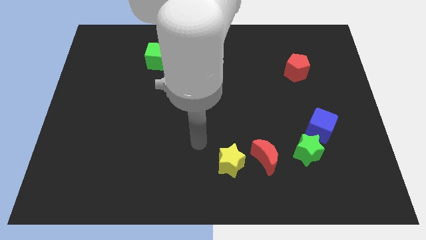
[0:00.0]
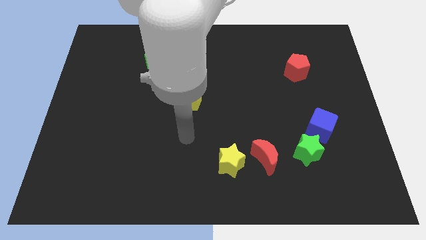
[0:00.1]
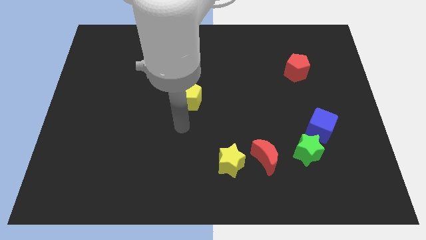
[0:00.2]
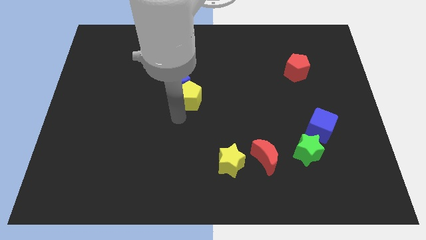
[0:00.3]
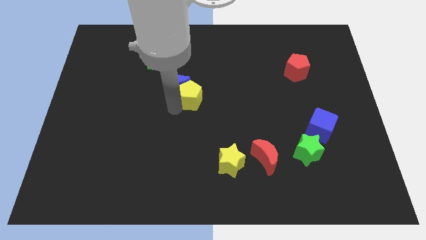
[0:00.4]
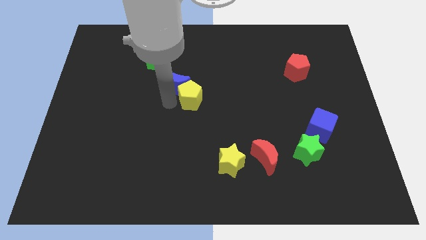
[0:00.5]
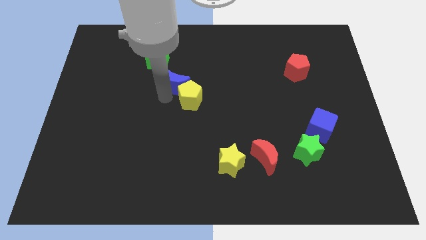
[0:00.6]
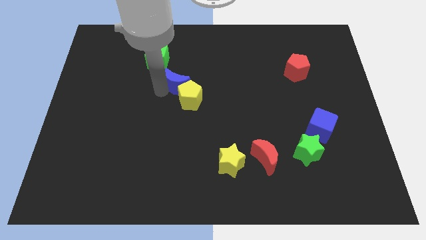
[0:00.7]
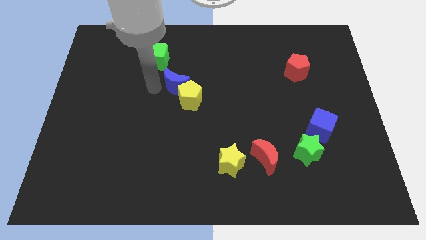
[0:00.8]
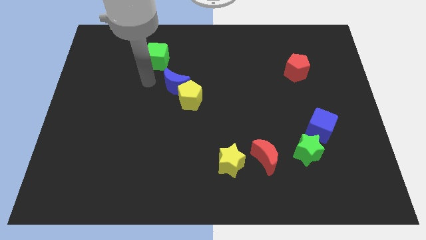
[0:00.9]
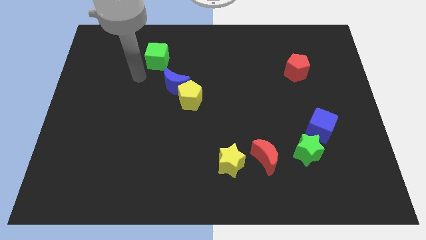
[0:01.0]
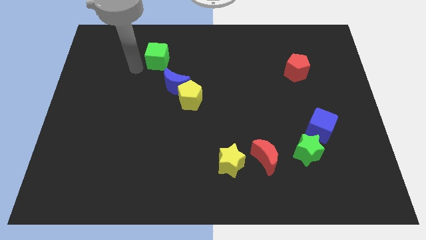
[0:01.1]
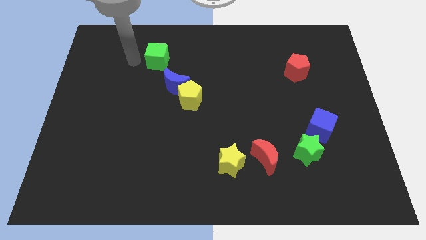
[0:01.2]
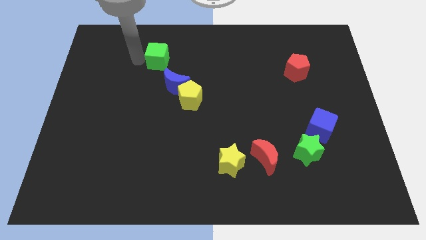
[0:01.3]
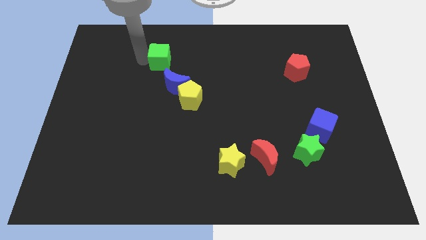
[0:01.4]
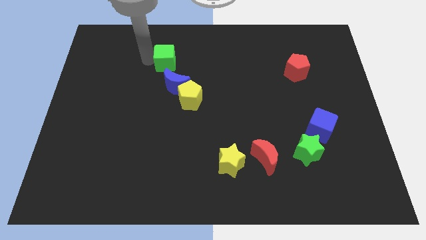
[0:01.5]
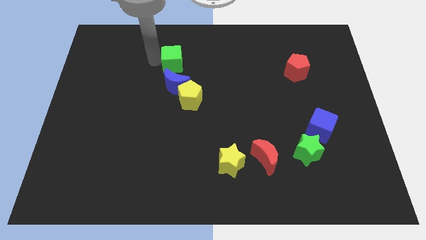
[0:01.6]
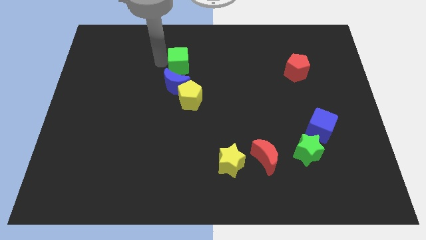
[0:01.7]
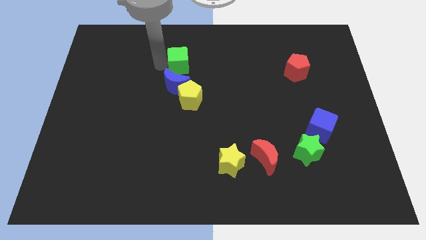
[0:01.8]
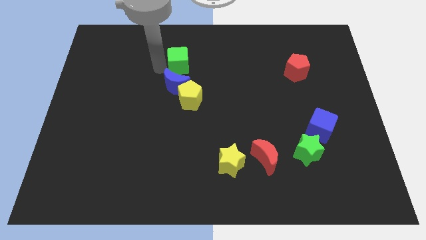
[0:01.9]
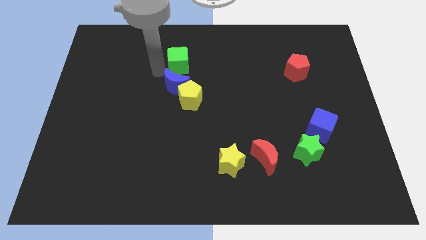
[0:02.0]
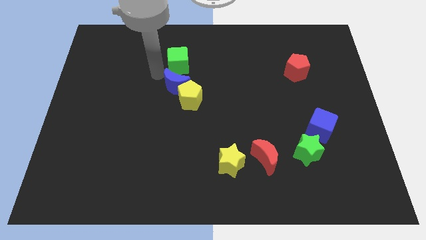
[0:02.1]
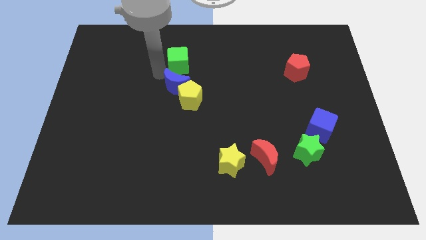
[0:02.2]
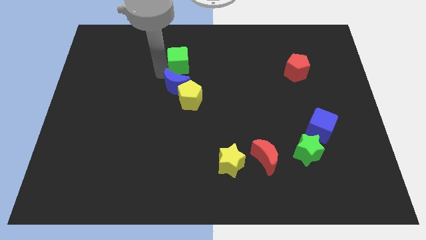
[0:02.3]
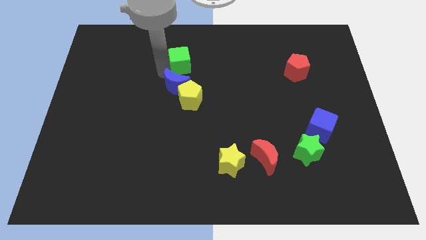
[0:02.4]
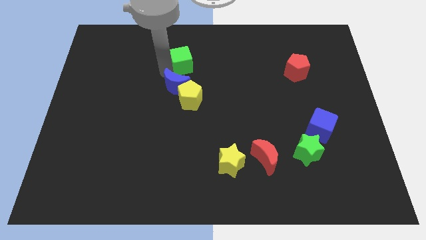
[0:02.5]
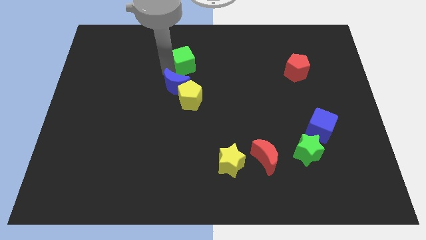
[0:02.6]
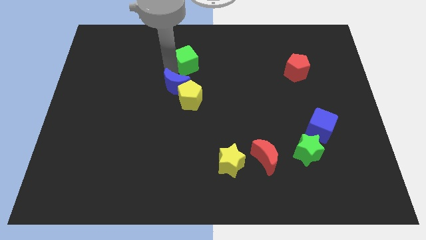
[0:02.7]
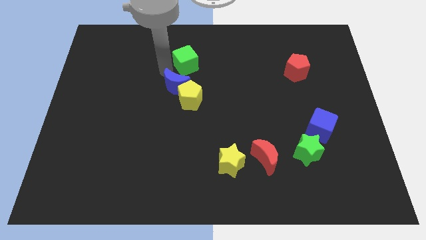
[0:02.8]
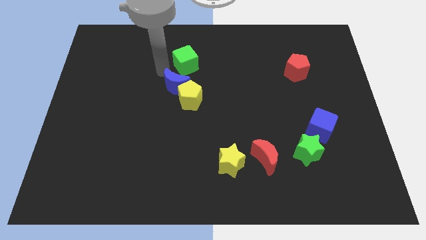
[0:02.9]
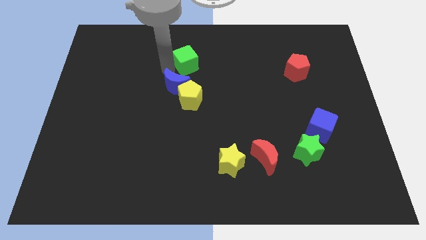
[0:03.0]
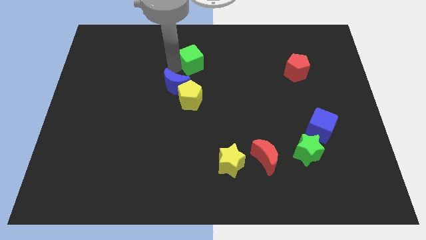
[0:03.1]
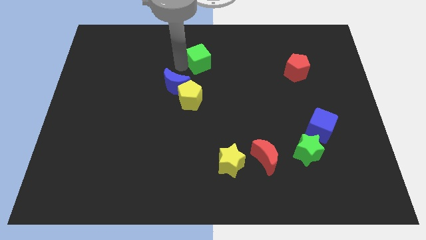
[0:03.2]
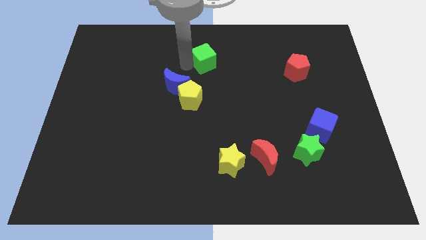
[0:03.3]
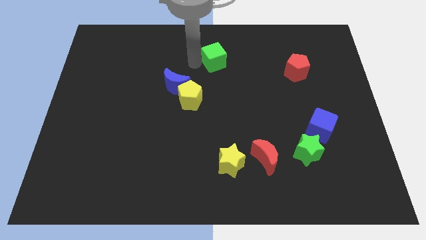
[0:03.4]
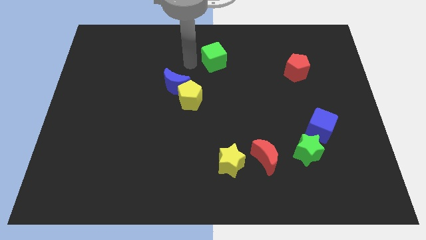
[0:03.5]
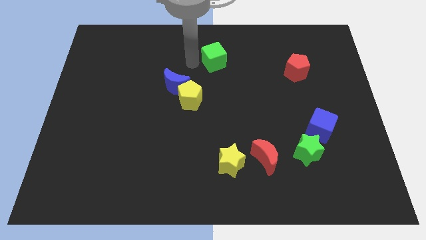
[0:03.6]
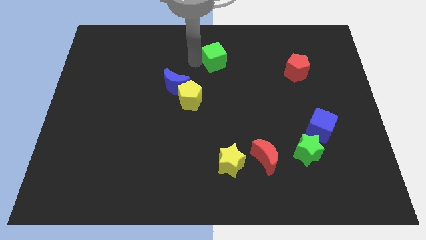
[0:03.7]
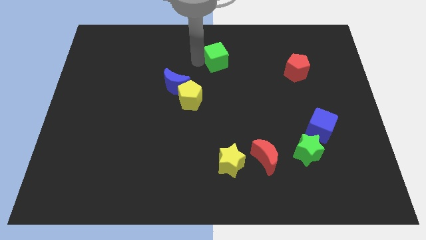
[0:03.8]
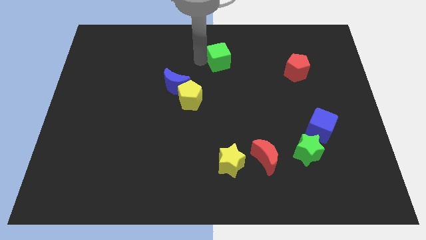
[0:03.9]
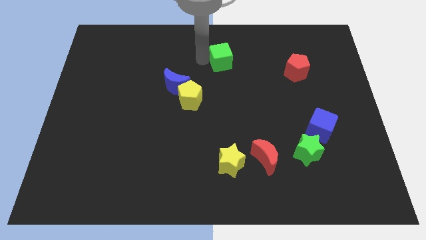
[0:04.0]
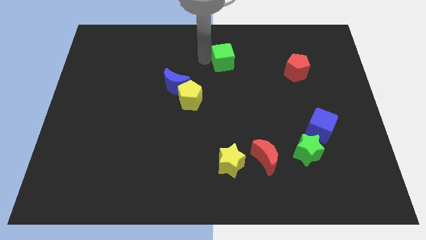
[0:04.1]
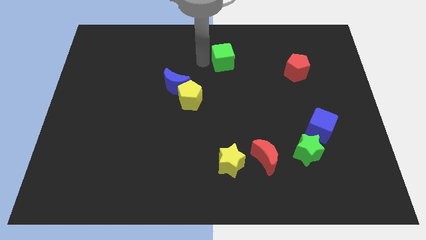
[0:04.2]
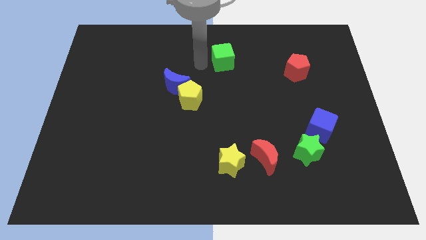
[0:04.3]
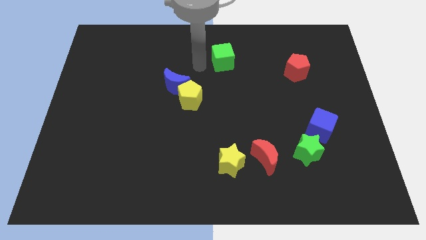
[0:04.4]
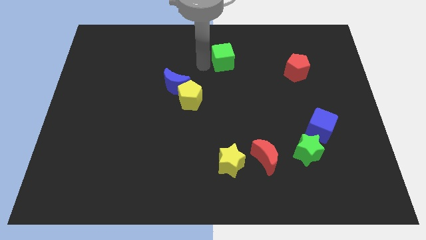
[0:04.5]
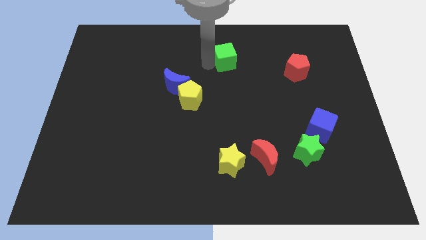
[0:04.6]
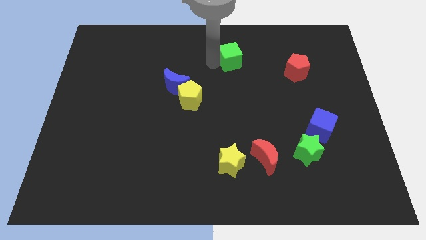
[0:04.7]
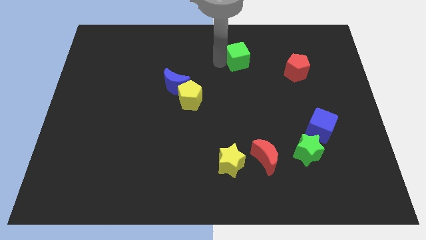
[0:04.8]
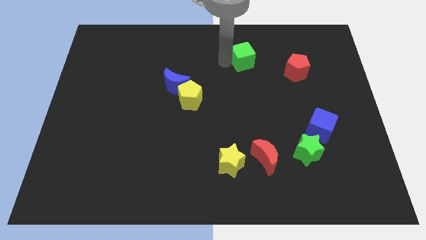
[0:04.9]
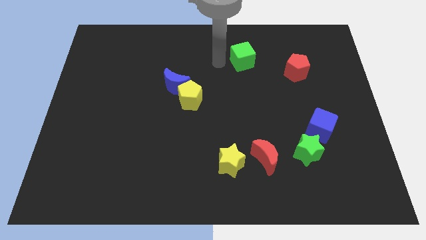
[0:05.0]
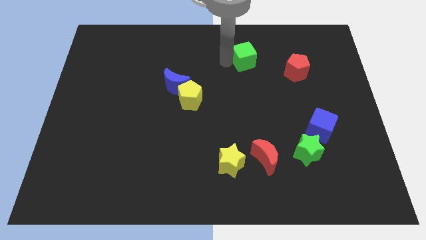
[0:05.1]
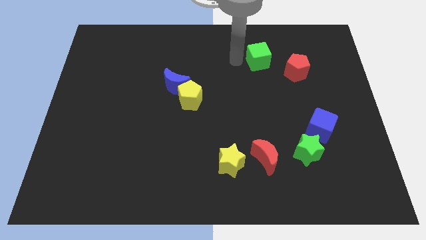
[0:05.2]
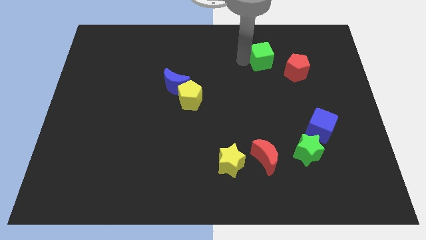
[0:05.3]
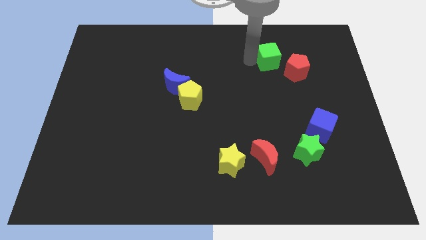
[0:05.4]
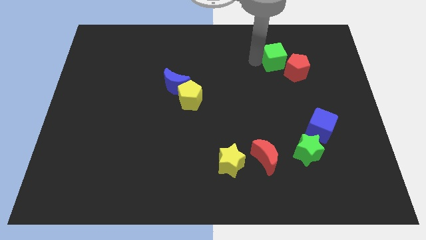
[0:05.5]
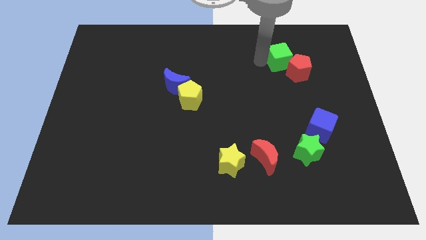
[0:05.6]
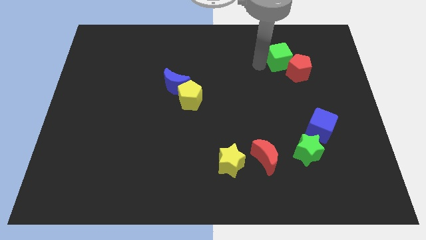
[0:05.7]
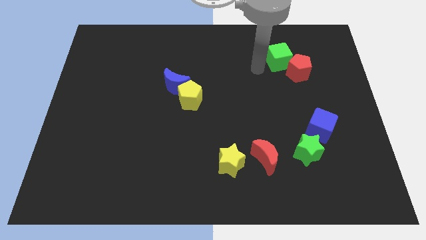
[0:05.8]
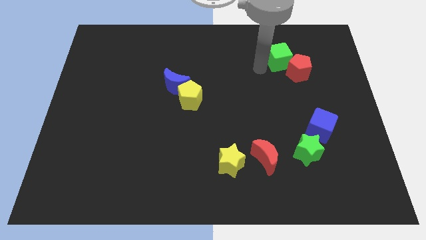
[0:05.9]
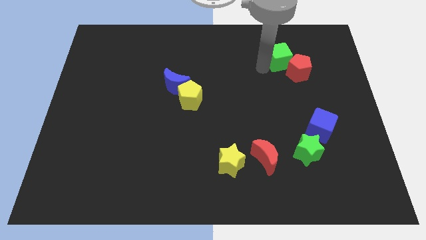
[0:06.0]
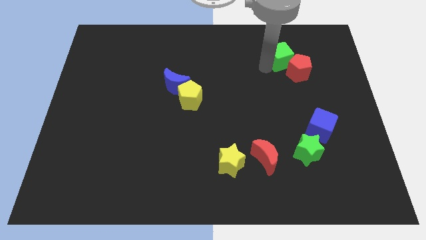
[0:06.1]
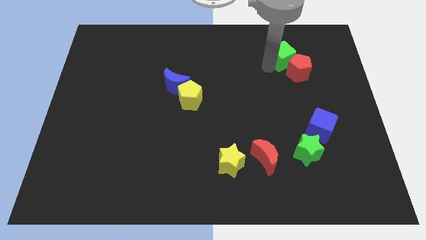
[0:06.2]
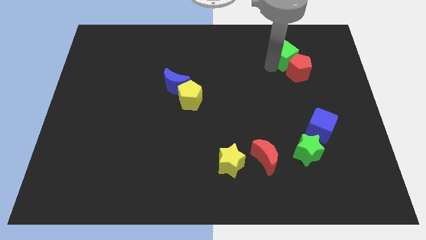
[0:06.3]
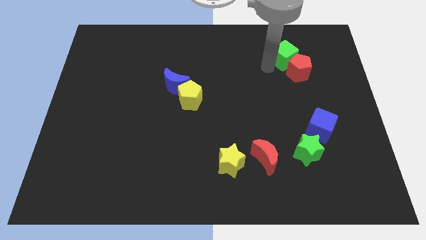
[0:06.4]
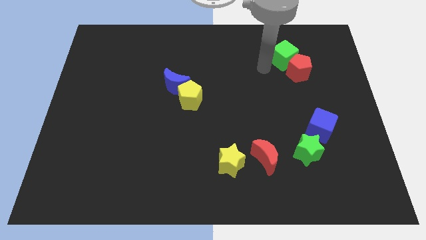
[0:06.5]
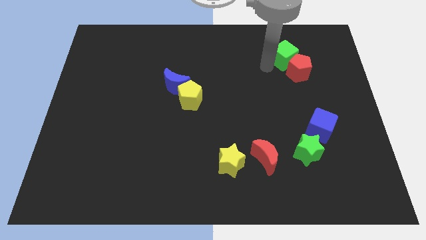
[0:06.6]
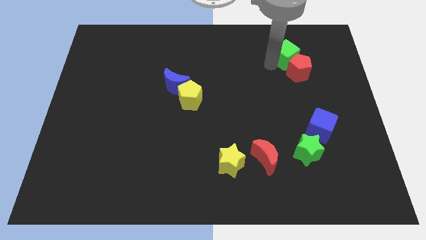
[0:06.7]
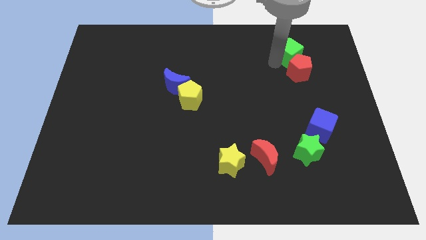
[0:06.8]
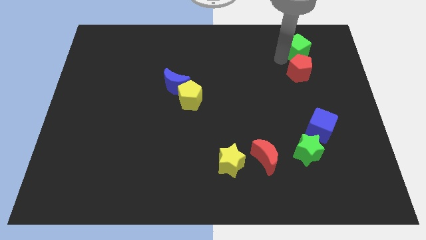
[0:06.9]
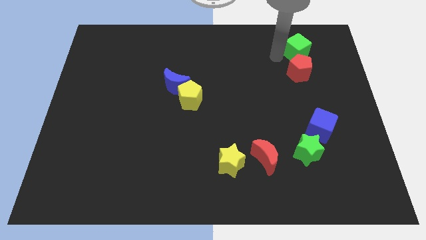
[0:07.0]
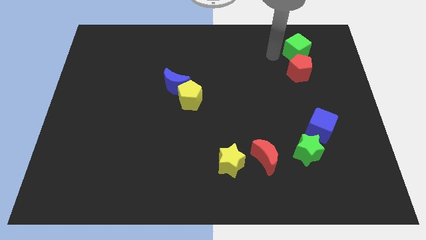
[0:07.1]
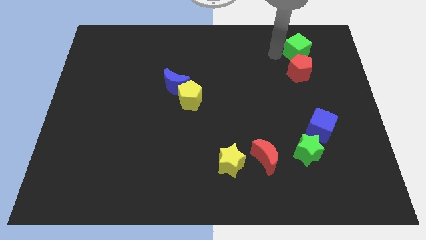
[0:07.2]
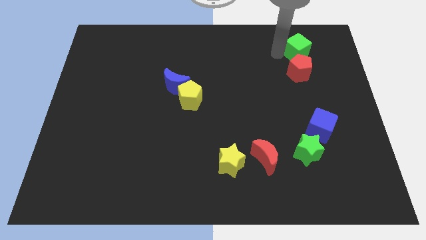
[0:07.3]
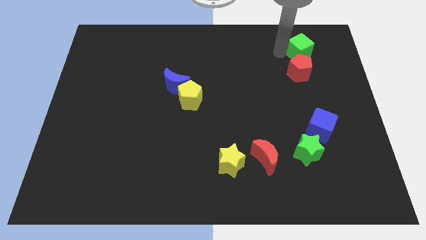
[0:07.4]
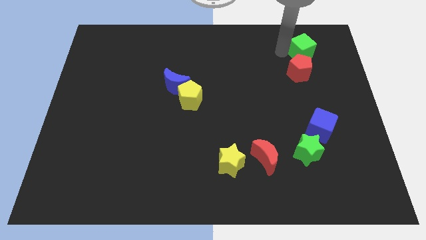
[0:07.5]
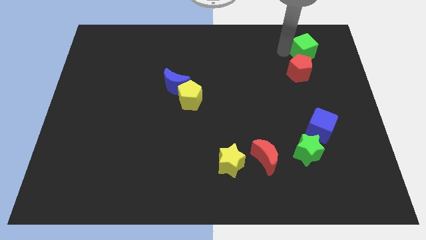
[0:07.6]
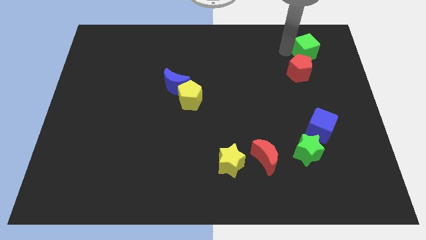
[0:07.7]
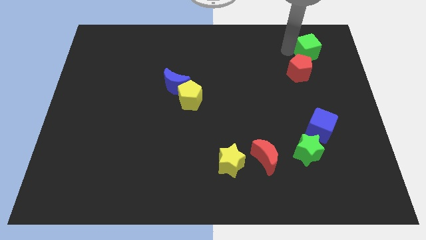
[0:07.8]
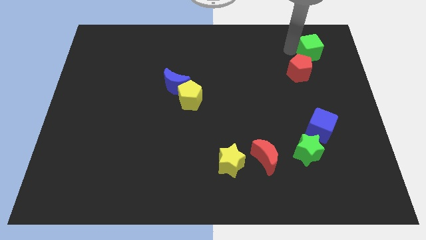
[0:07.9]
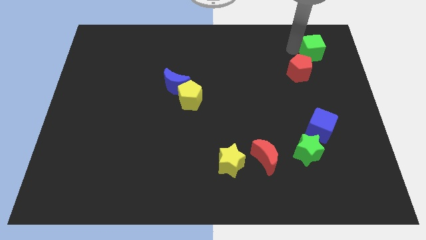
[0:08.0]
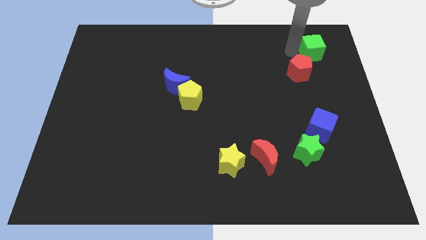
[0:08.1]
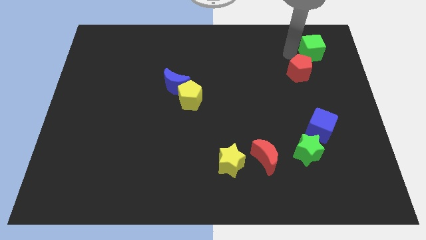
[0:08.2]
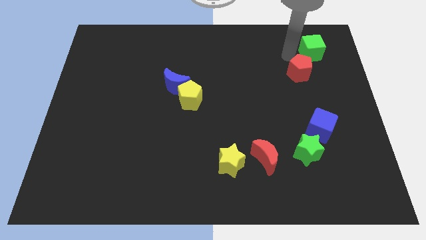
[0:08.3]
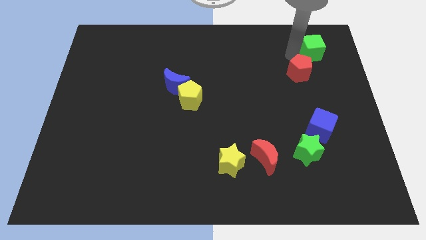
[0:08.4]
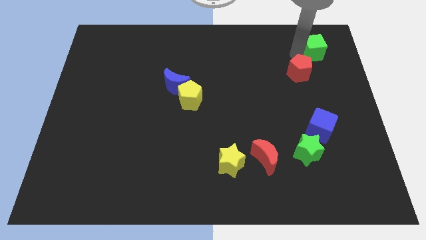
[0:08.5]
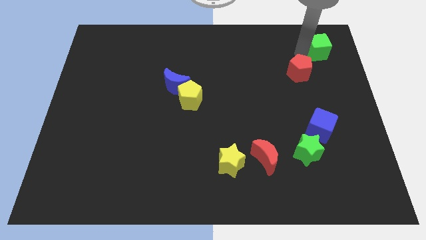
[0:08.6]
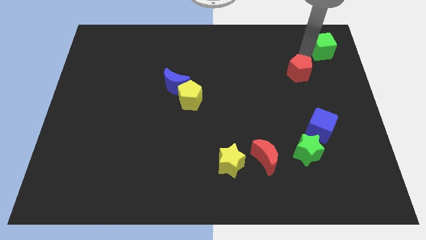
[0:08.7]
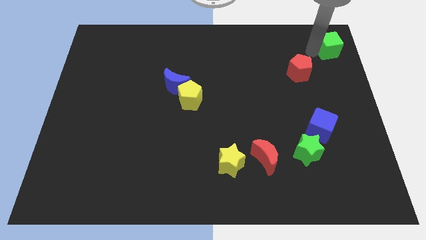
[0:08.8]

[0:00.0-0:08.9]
slide the green cube to the top right of the board
